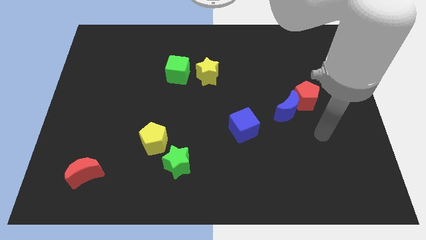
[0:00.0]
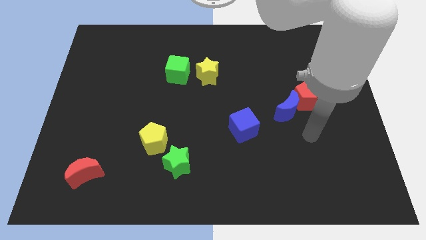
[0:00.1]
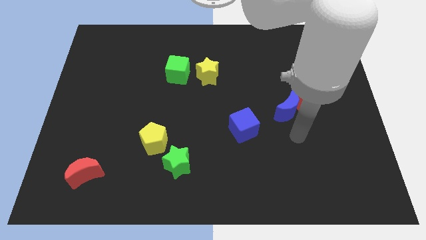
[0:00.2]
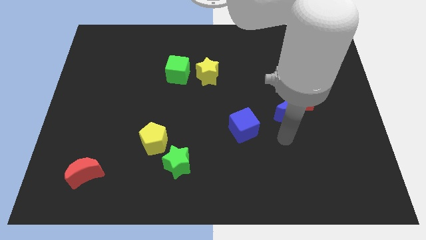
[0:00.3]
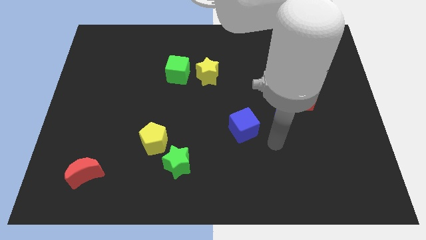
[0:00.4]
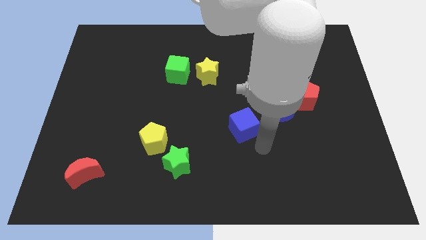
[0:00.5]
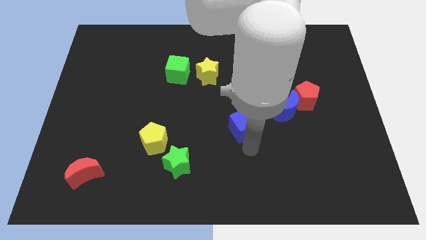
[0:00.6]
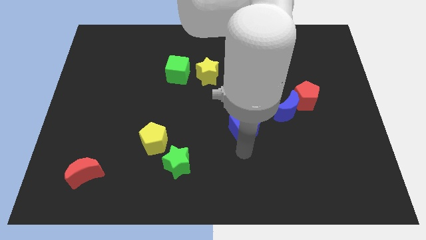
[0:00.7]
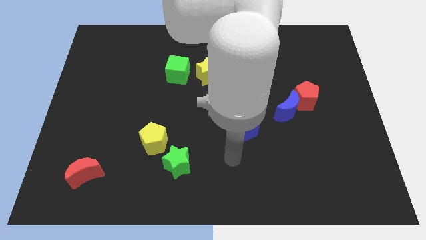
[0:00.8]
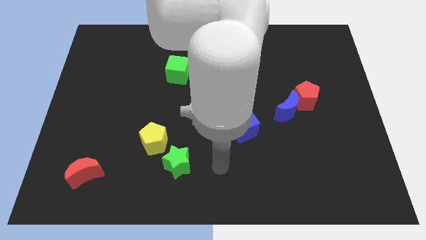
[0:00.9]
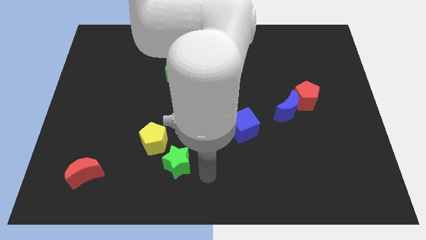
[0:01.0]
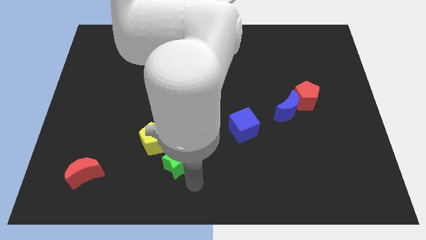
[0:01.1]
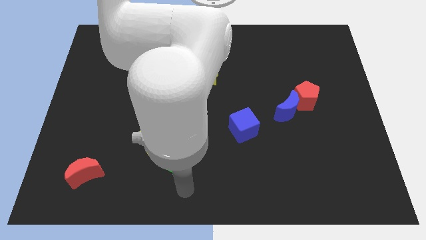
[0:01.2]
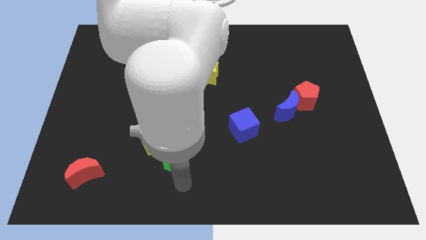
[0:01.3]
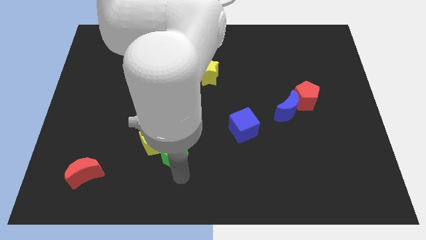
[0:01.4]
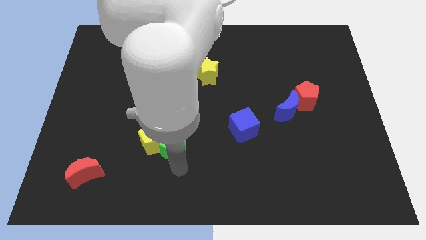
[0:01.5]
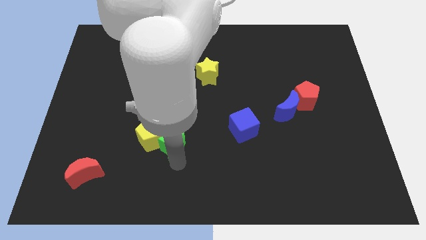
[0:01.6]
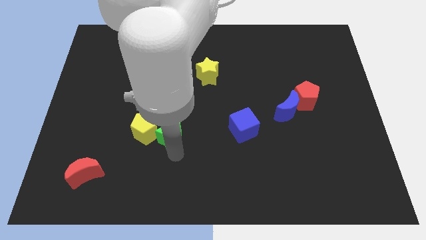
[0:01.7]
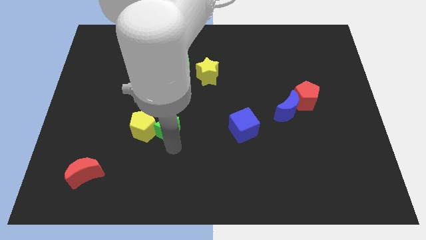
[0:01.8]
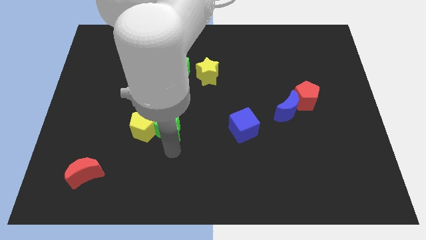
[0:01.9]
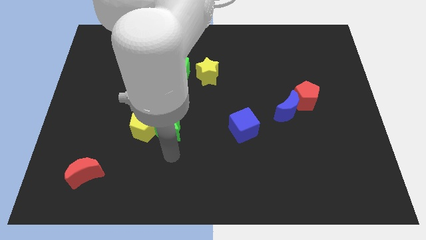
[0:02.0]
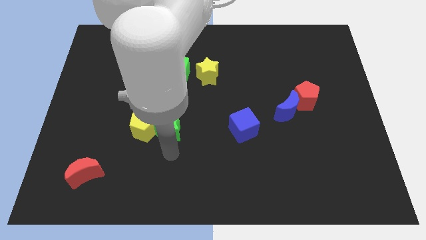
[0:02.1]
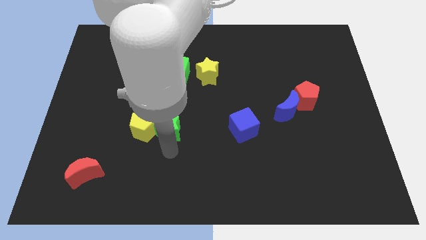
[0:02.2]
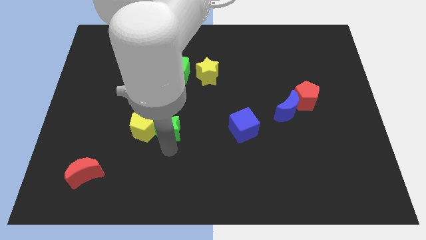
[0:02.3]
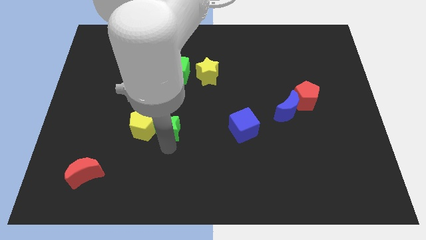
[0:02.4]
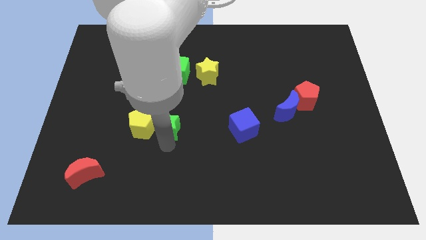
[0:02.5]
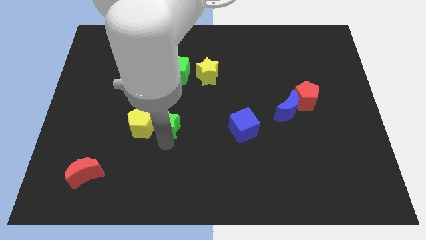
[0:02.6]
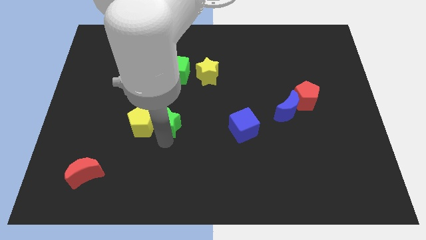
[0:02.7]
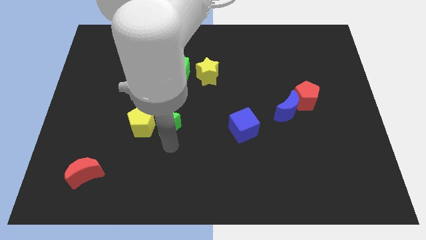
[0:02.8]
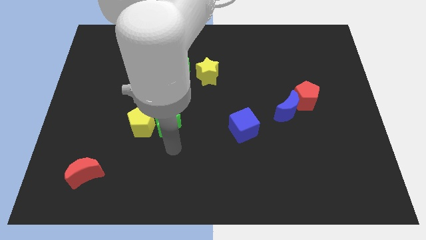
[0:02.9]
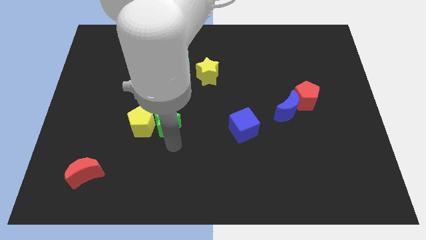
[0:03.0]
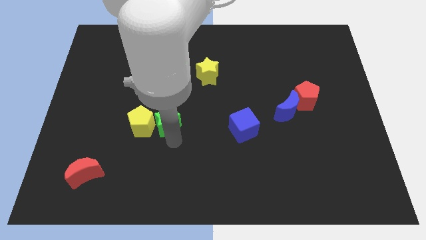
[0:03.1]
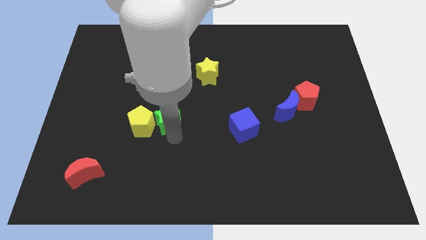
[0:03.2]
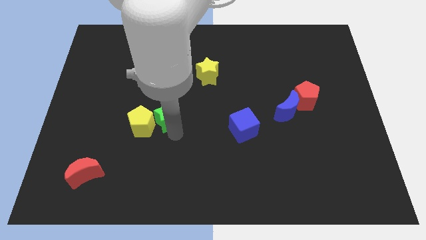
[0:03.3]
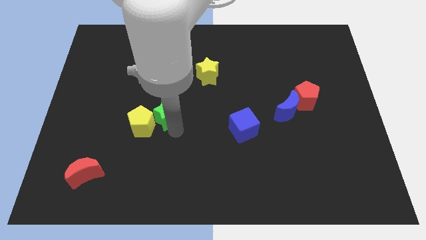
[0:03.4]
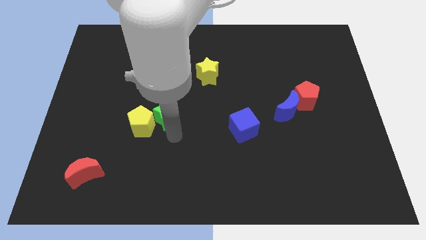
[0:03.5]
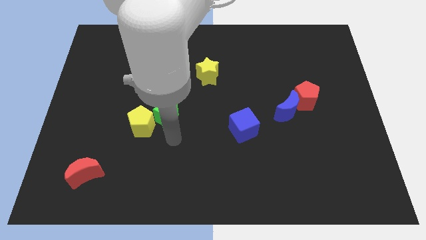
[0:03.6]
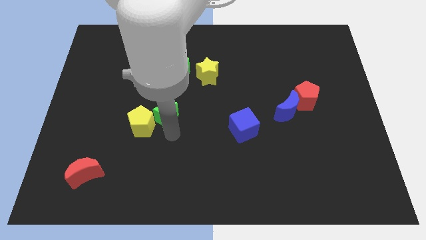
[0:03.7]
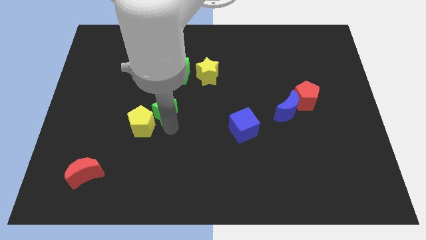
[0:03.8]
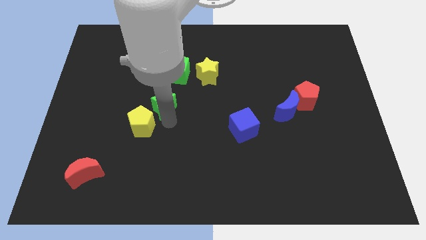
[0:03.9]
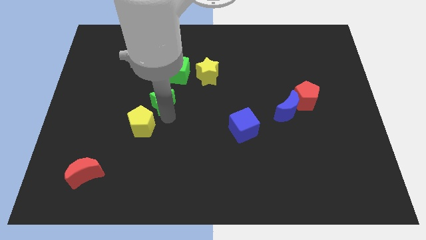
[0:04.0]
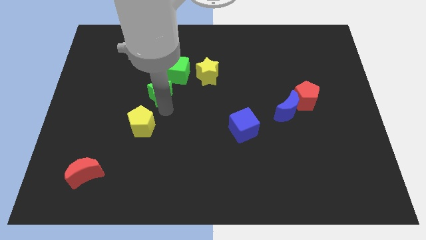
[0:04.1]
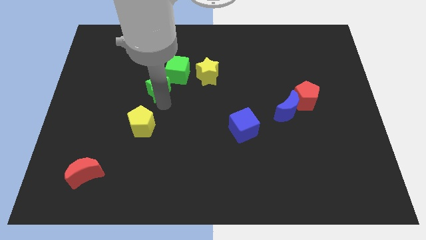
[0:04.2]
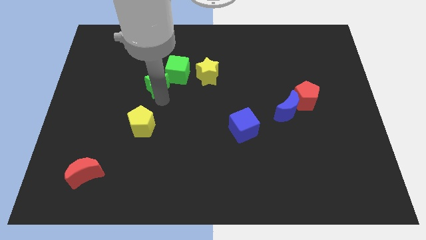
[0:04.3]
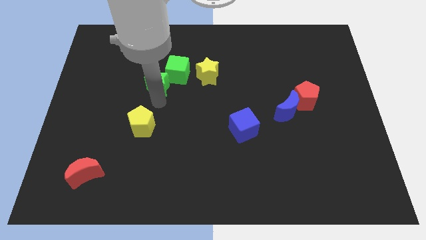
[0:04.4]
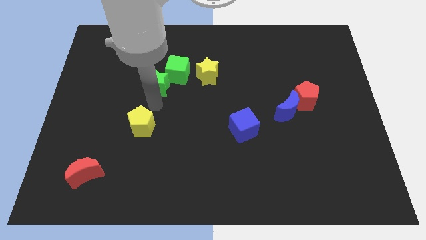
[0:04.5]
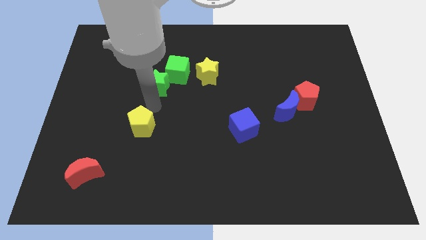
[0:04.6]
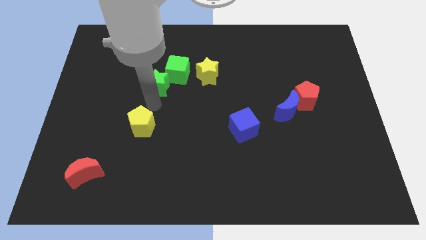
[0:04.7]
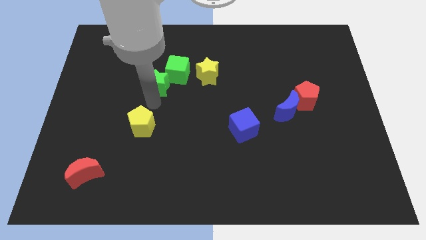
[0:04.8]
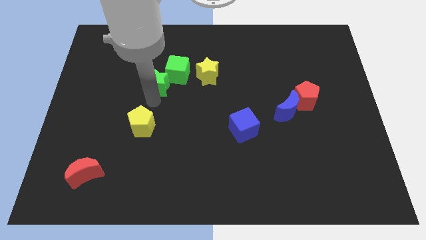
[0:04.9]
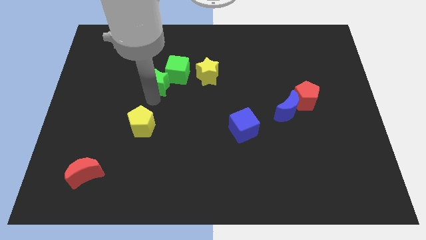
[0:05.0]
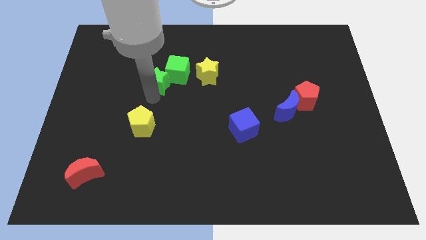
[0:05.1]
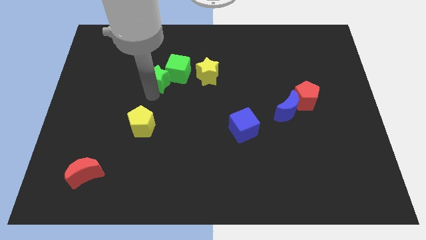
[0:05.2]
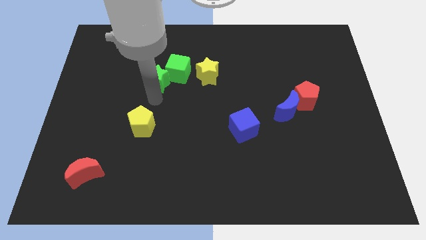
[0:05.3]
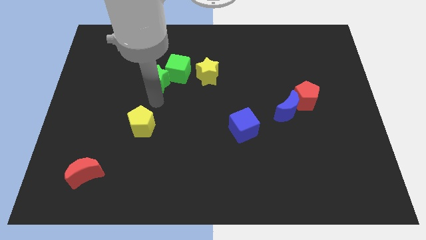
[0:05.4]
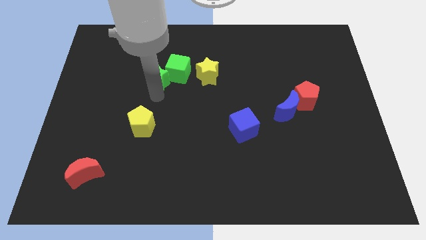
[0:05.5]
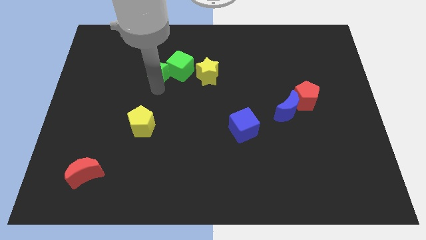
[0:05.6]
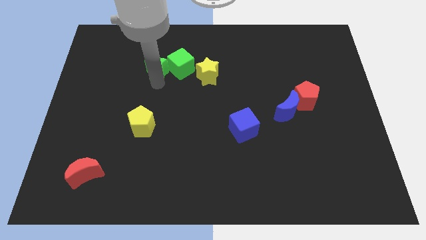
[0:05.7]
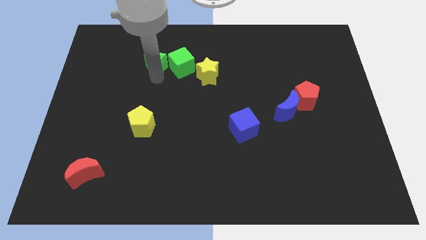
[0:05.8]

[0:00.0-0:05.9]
put the green star to the top left side of the green cube

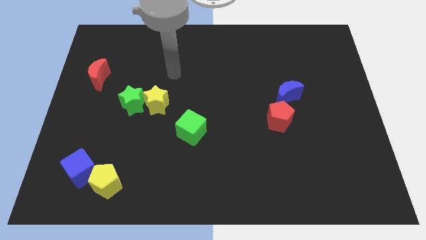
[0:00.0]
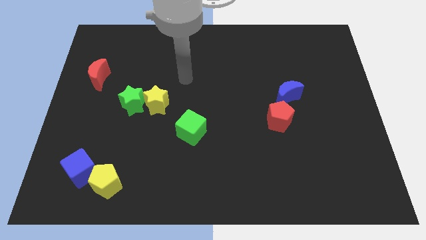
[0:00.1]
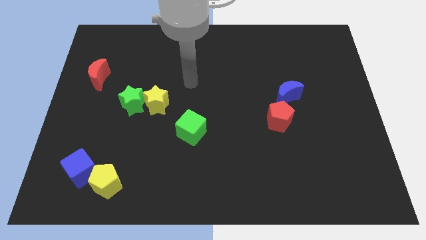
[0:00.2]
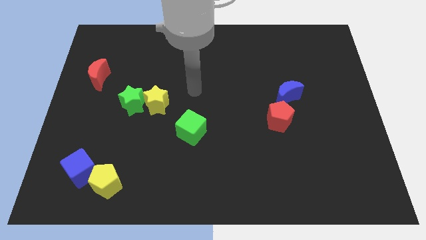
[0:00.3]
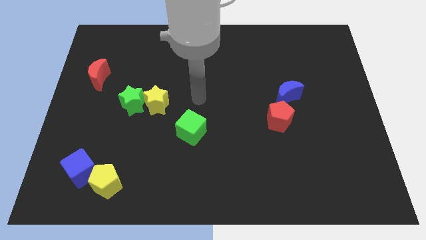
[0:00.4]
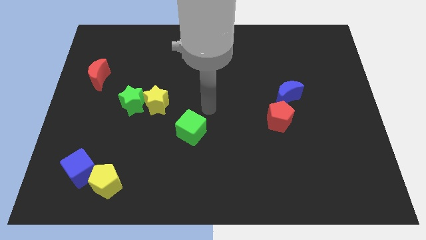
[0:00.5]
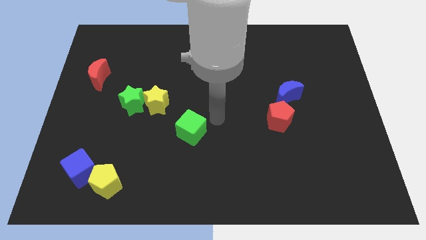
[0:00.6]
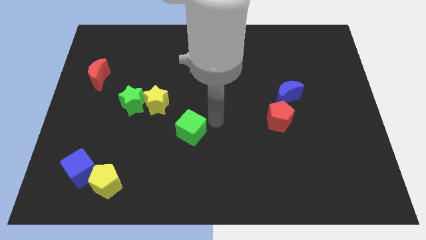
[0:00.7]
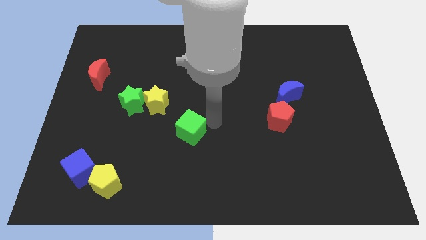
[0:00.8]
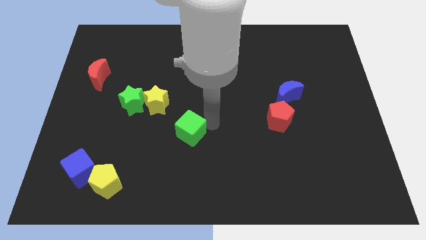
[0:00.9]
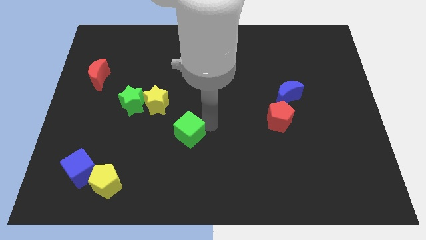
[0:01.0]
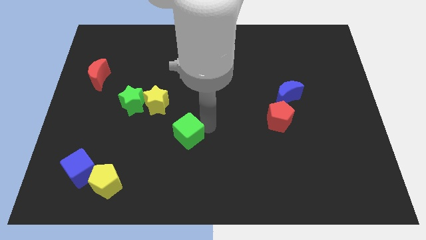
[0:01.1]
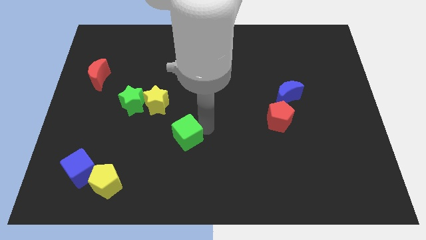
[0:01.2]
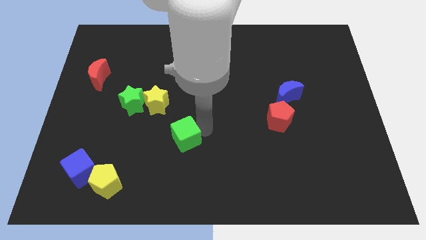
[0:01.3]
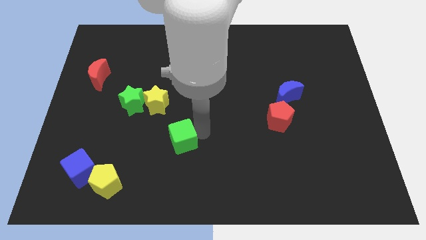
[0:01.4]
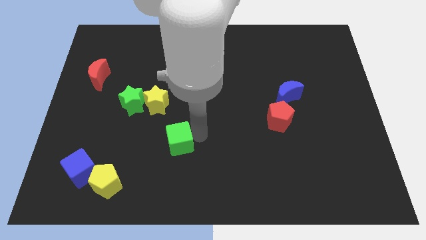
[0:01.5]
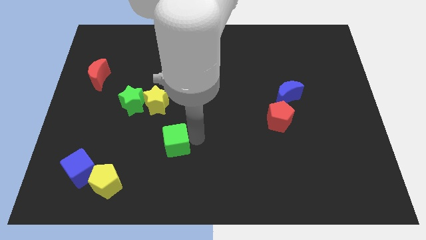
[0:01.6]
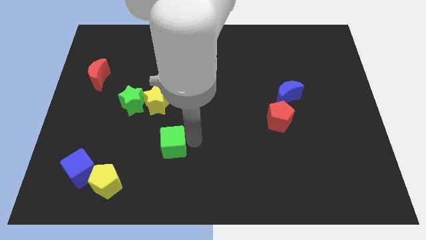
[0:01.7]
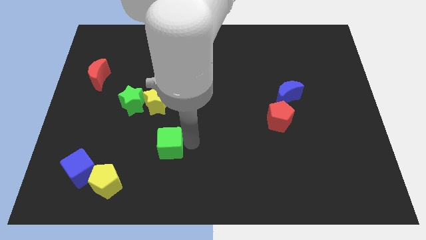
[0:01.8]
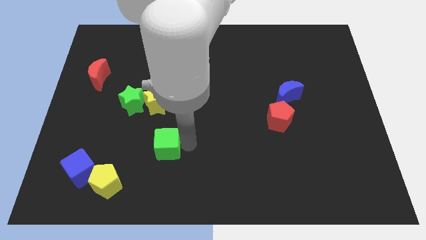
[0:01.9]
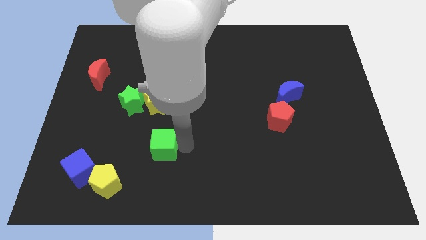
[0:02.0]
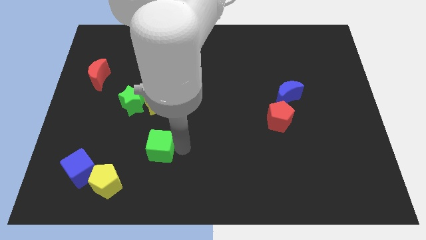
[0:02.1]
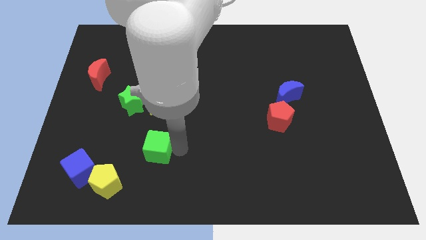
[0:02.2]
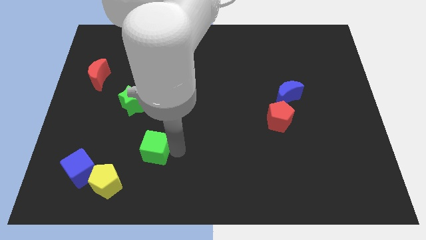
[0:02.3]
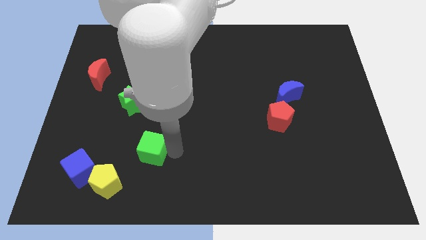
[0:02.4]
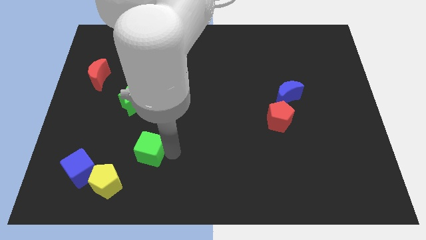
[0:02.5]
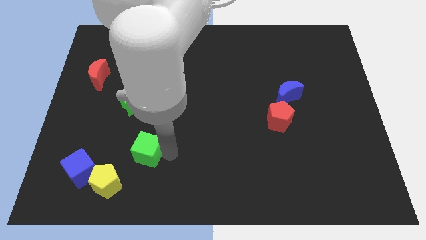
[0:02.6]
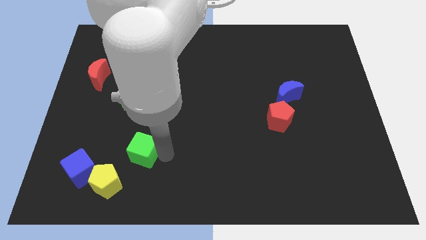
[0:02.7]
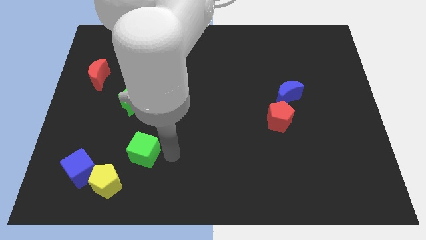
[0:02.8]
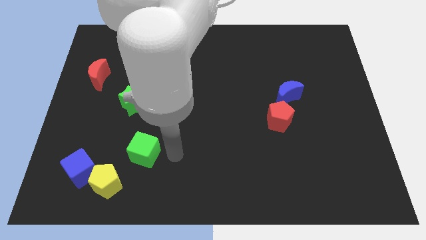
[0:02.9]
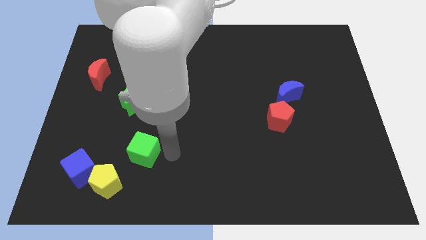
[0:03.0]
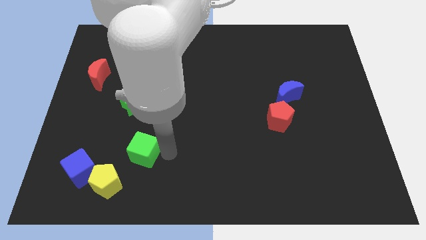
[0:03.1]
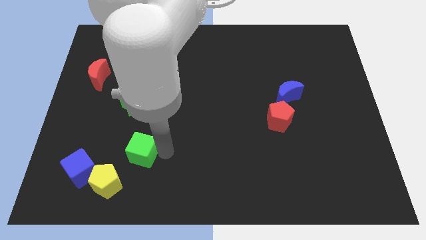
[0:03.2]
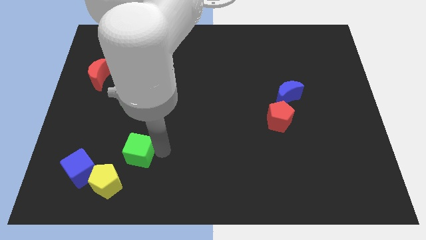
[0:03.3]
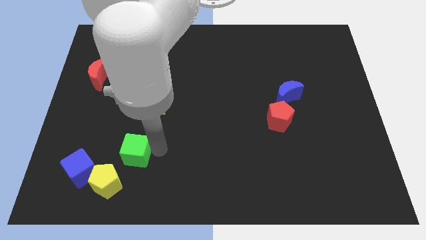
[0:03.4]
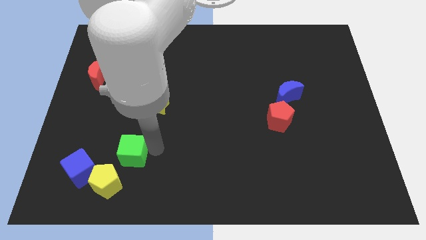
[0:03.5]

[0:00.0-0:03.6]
move the green cube diagonally up and to the right of the blue cube
